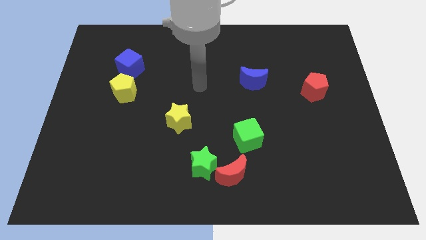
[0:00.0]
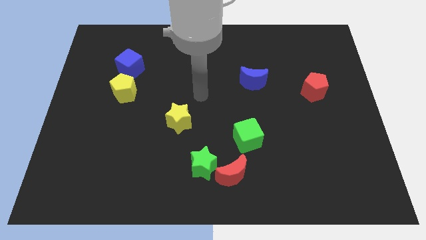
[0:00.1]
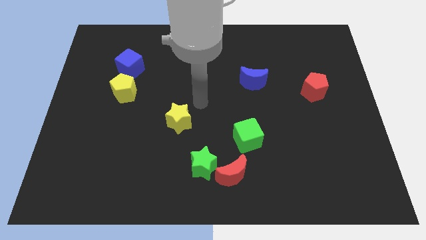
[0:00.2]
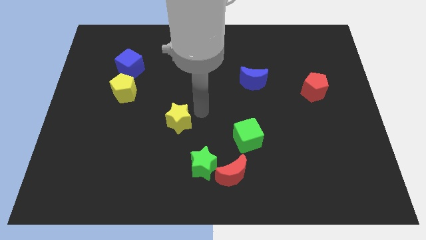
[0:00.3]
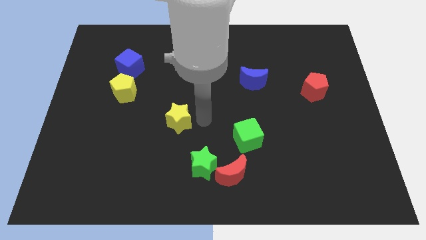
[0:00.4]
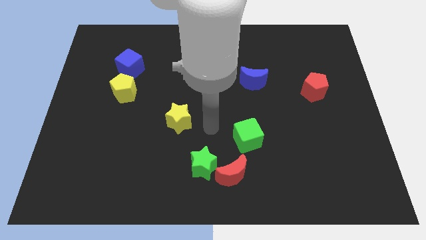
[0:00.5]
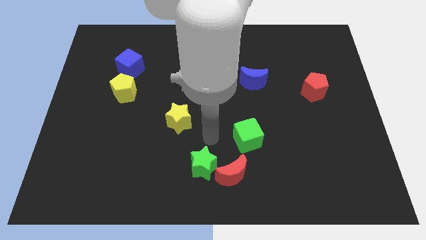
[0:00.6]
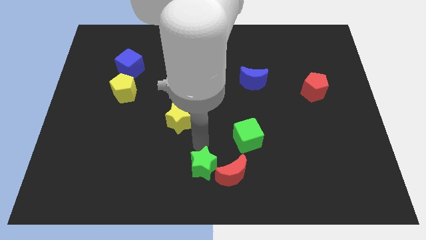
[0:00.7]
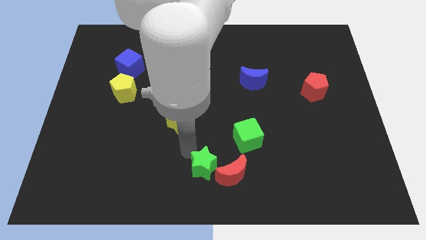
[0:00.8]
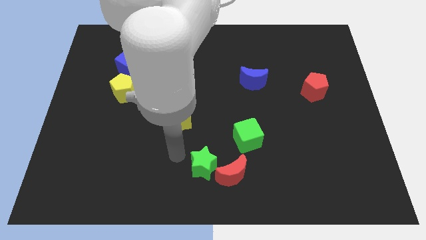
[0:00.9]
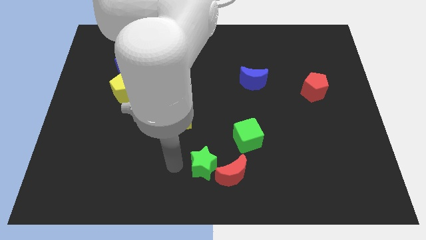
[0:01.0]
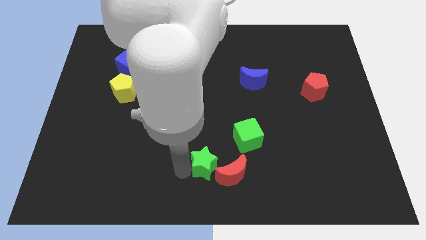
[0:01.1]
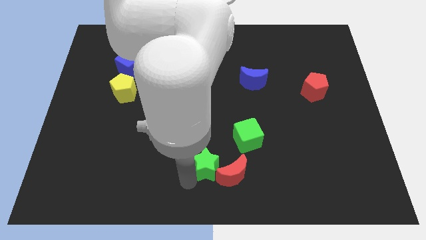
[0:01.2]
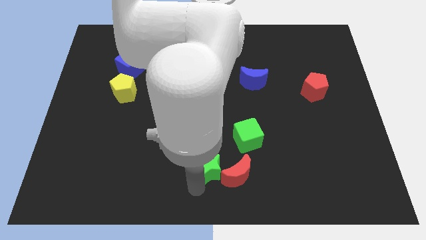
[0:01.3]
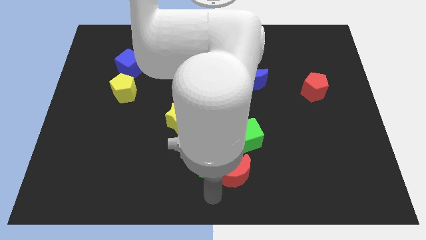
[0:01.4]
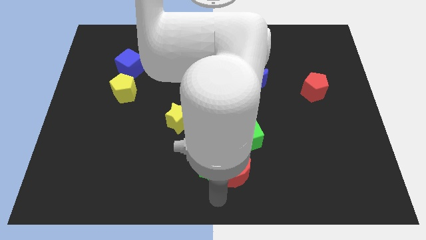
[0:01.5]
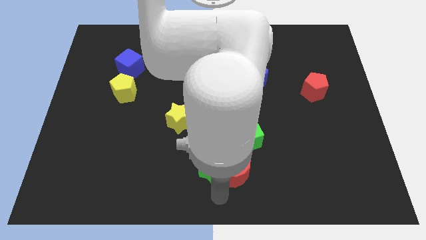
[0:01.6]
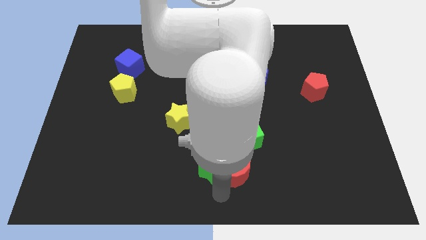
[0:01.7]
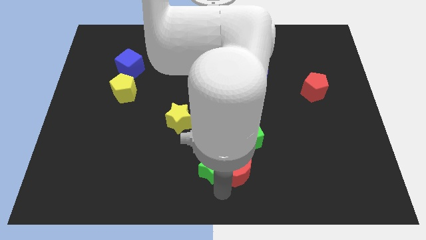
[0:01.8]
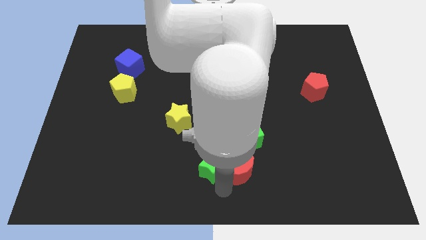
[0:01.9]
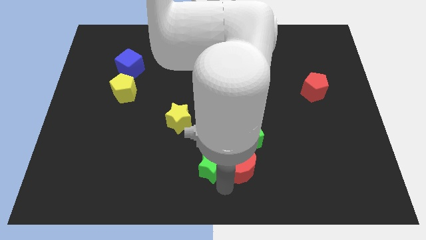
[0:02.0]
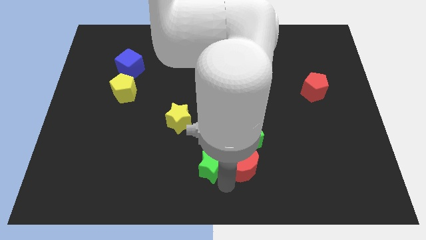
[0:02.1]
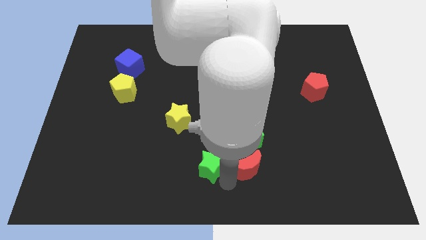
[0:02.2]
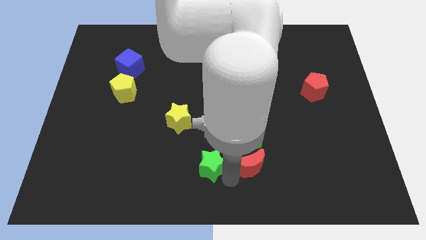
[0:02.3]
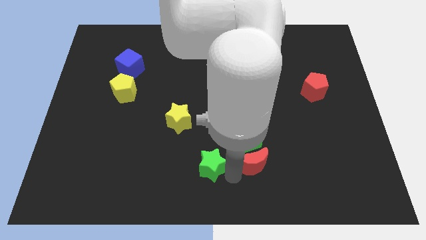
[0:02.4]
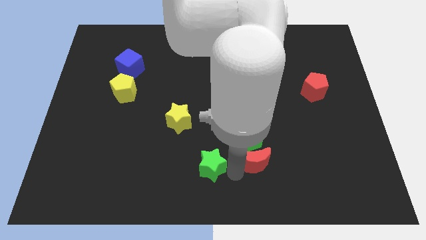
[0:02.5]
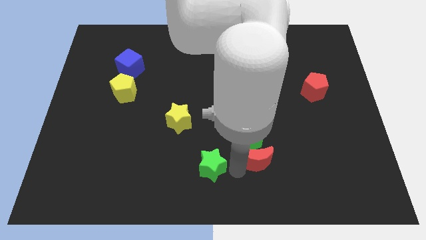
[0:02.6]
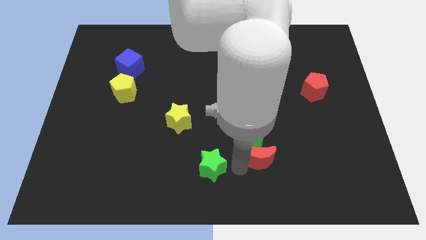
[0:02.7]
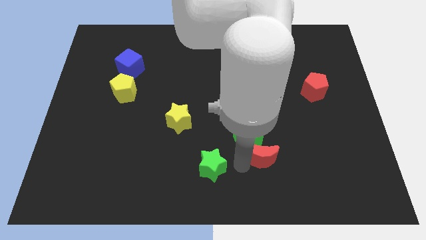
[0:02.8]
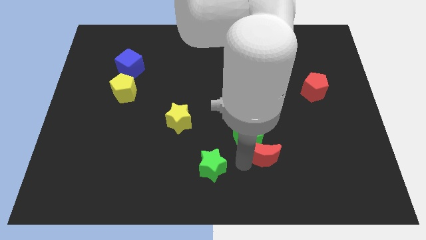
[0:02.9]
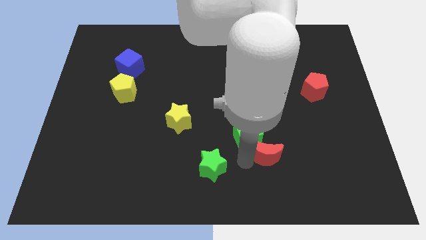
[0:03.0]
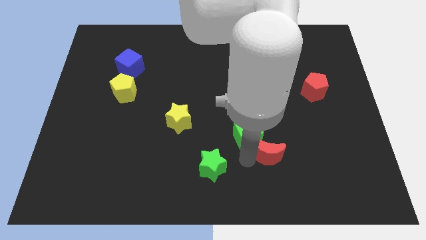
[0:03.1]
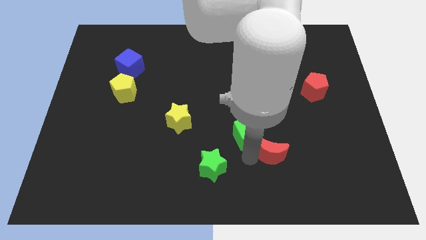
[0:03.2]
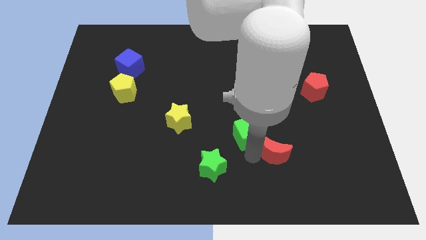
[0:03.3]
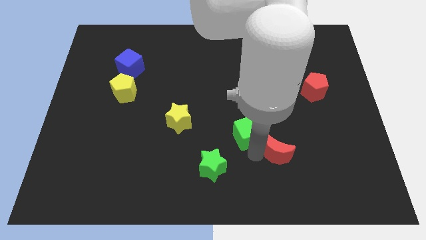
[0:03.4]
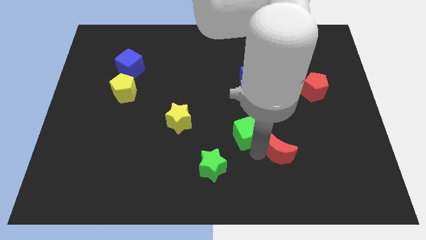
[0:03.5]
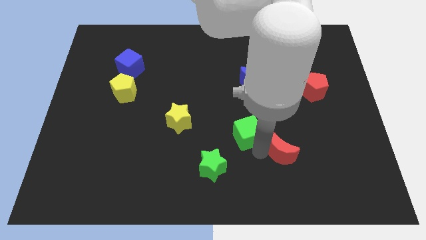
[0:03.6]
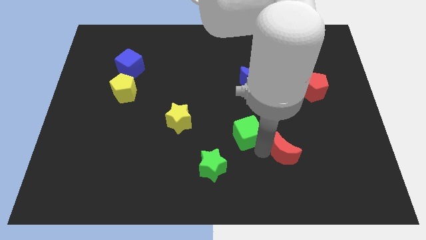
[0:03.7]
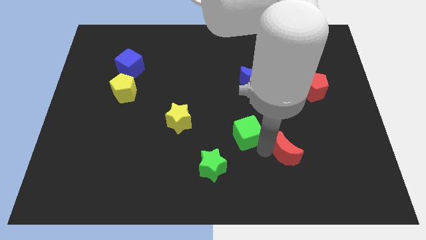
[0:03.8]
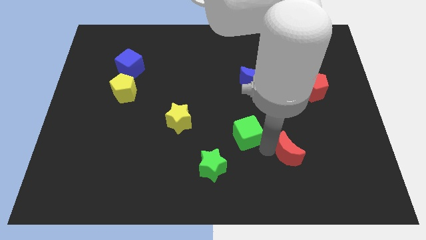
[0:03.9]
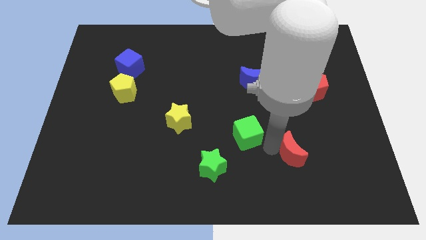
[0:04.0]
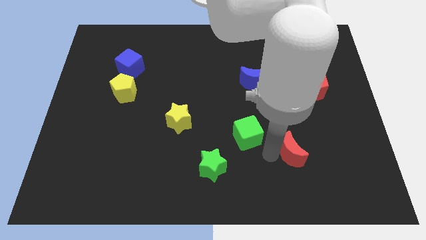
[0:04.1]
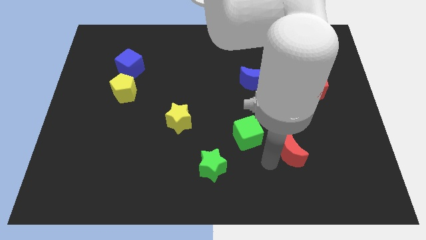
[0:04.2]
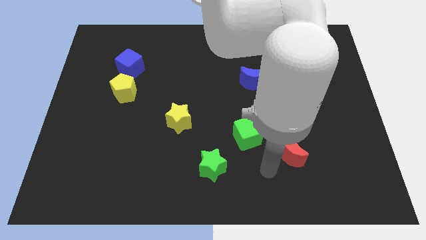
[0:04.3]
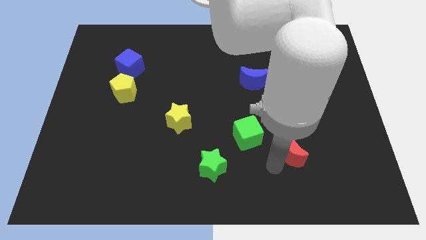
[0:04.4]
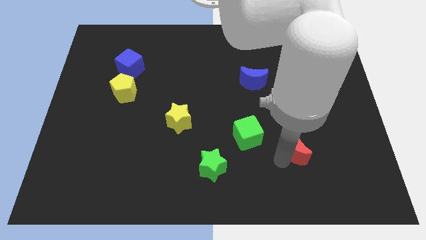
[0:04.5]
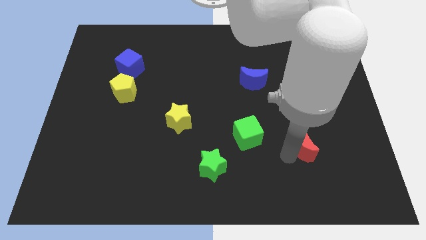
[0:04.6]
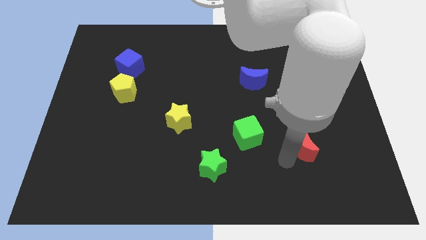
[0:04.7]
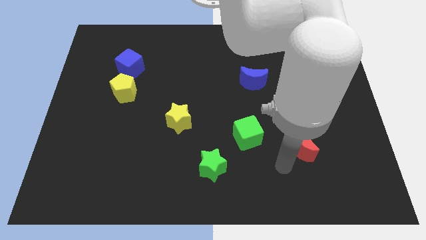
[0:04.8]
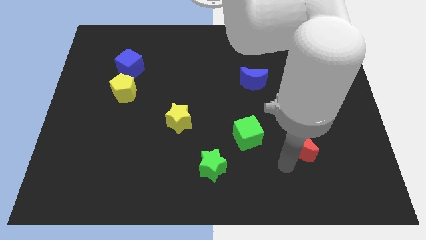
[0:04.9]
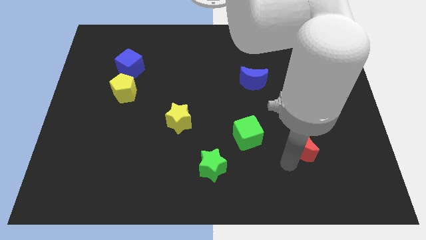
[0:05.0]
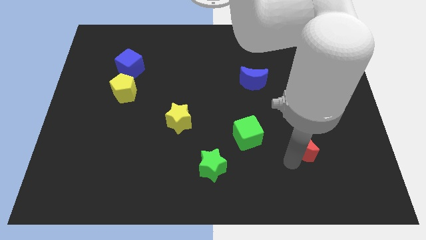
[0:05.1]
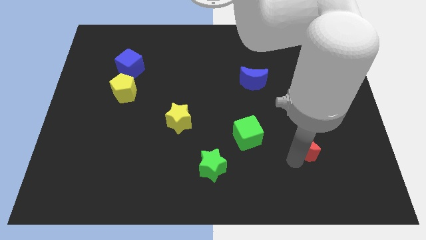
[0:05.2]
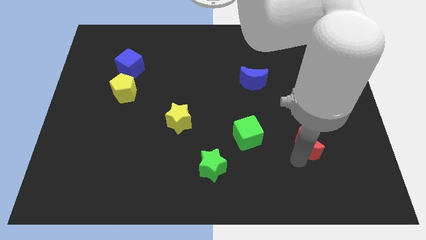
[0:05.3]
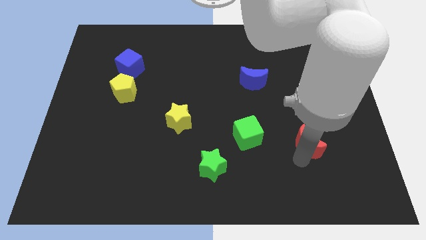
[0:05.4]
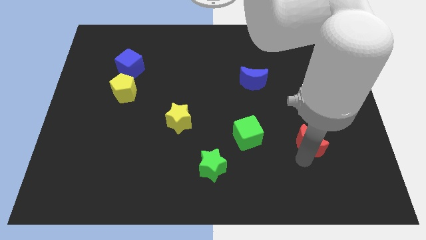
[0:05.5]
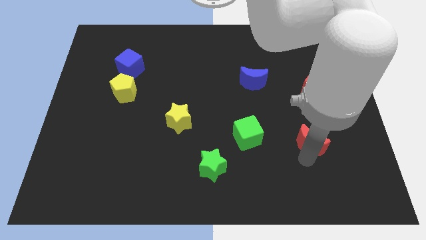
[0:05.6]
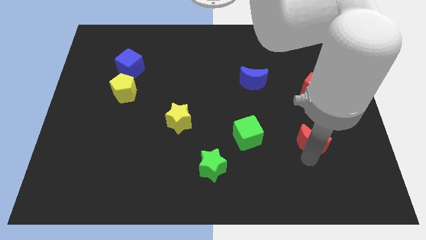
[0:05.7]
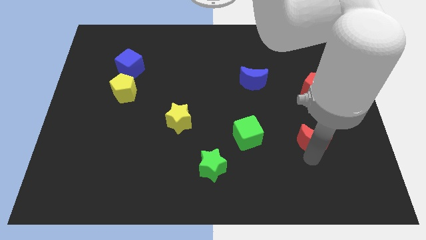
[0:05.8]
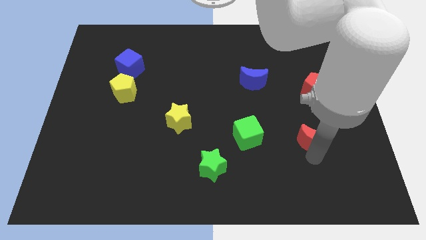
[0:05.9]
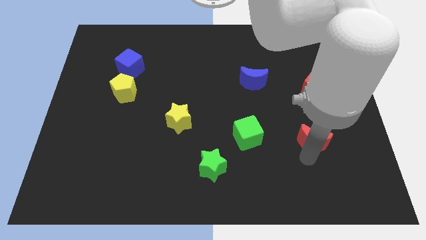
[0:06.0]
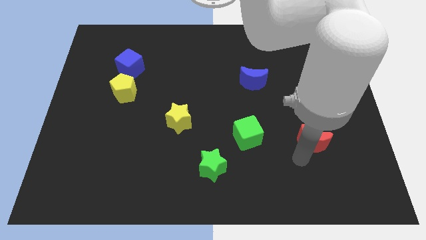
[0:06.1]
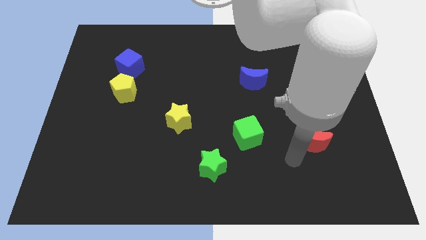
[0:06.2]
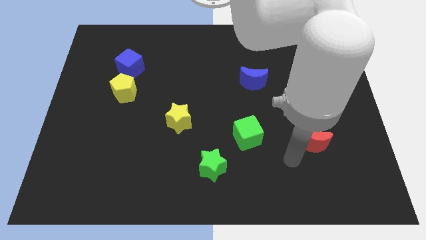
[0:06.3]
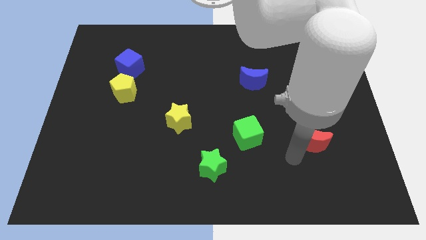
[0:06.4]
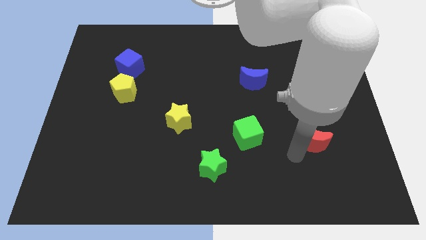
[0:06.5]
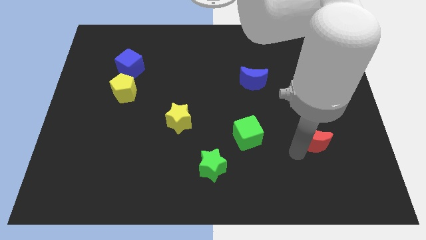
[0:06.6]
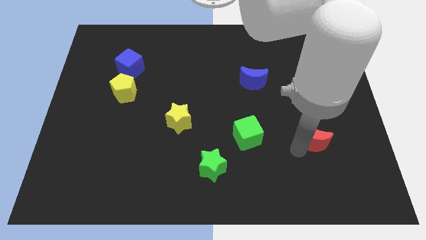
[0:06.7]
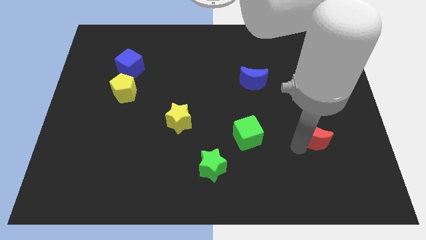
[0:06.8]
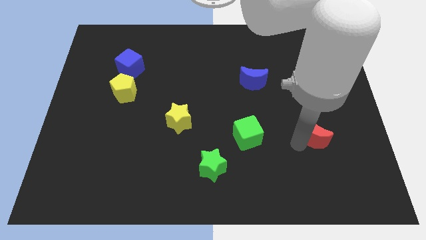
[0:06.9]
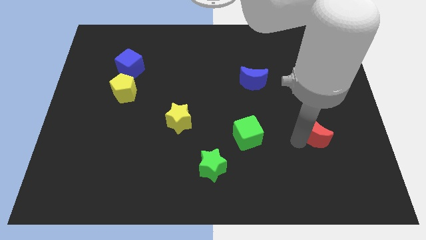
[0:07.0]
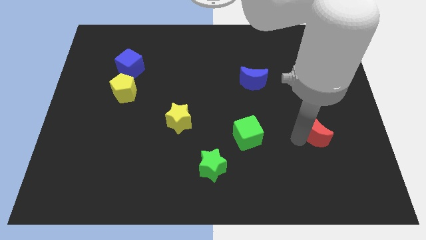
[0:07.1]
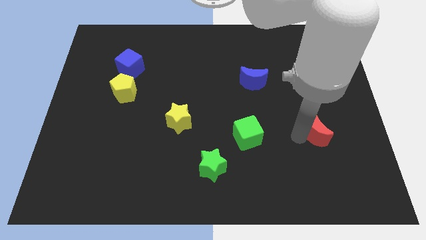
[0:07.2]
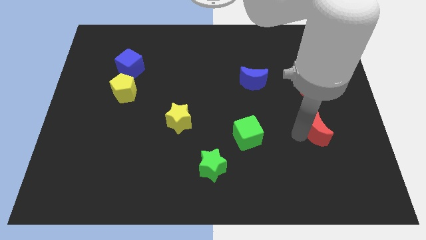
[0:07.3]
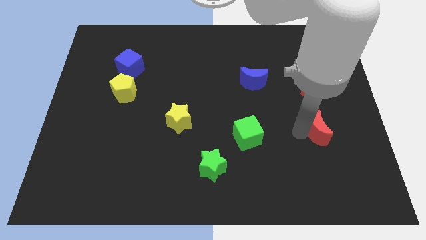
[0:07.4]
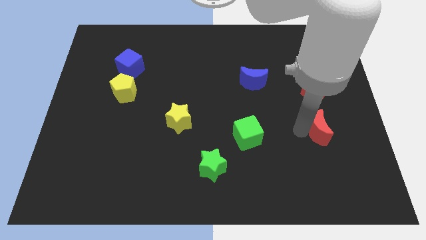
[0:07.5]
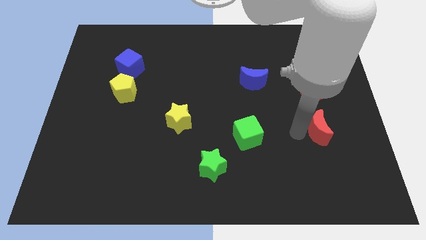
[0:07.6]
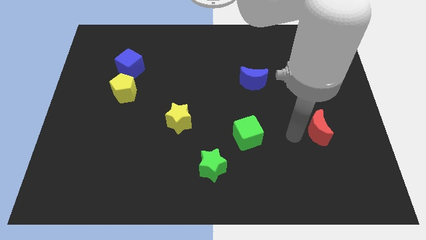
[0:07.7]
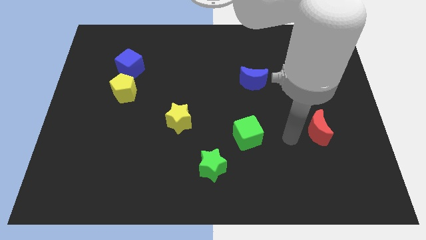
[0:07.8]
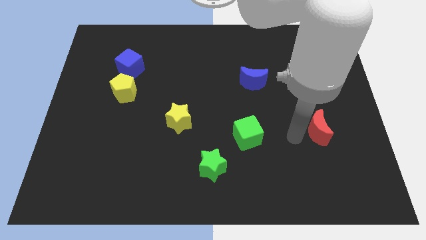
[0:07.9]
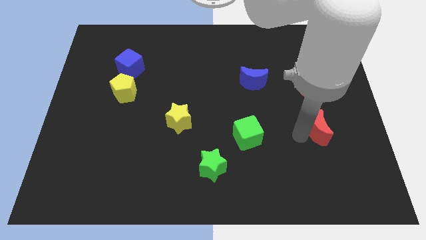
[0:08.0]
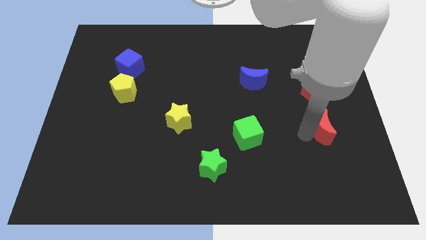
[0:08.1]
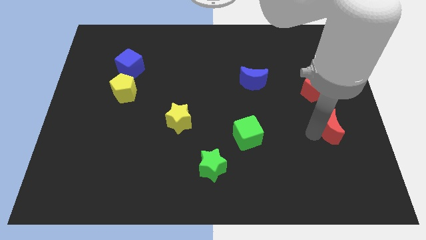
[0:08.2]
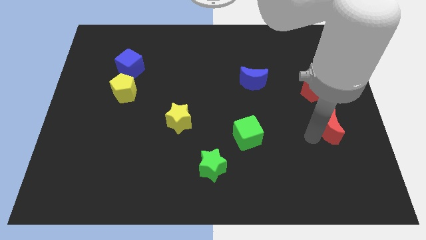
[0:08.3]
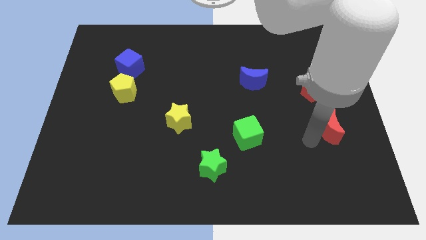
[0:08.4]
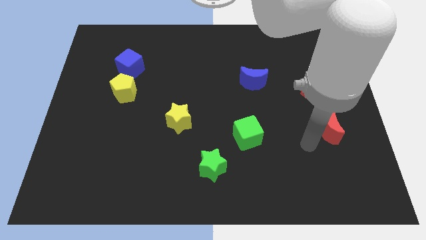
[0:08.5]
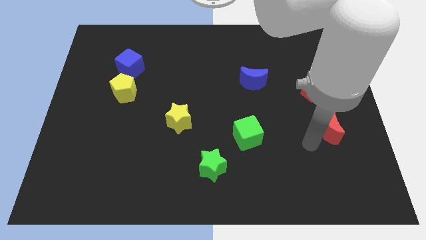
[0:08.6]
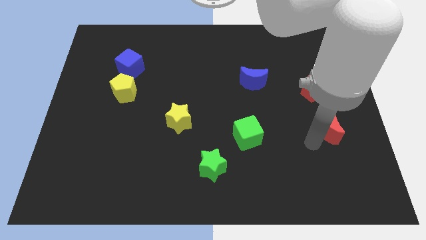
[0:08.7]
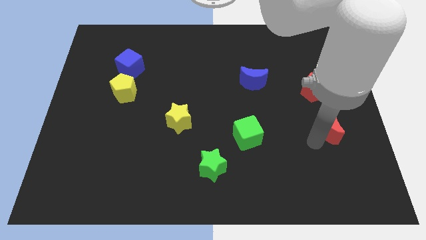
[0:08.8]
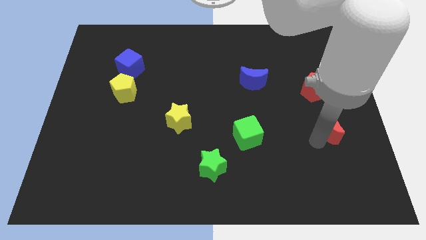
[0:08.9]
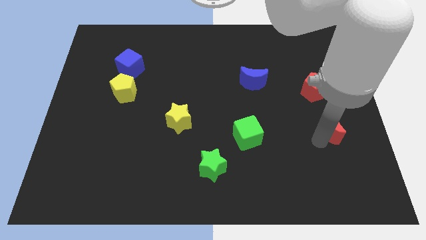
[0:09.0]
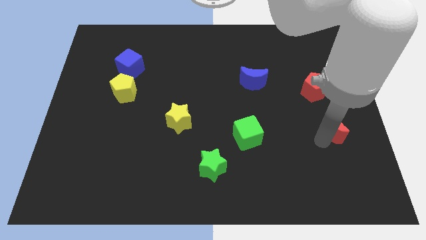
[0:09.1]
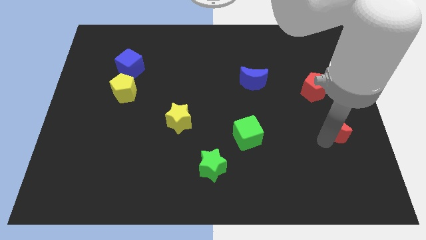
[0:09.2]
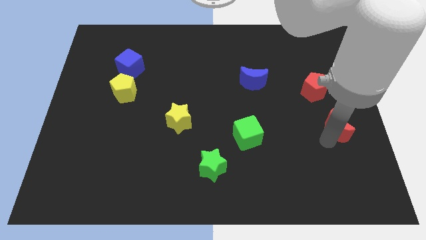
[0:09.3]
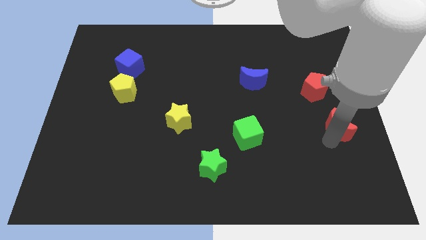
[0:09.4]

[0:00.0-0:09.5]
slide the red moon to the center right
